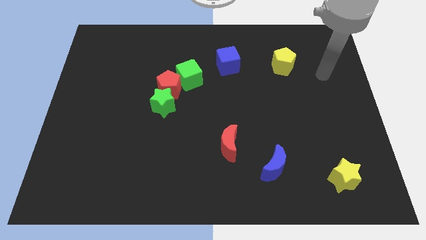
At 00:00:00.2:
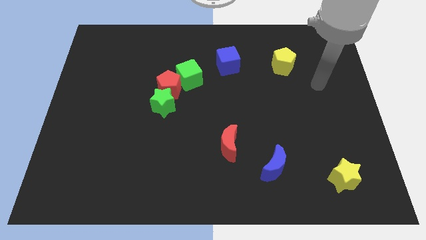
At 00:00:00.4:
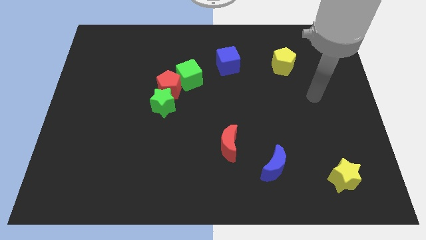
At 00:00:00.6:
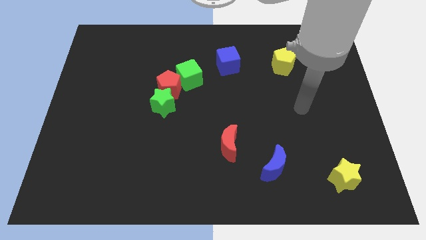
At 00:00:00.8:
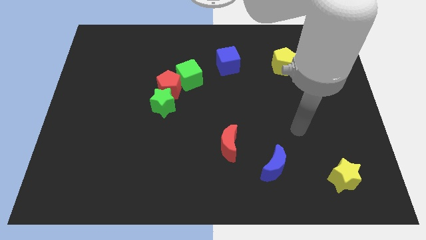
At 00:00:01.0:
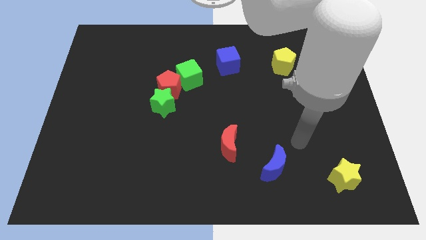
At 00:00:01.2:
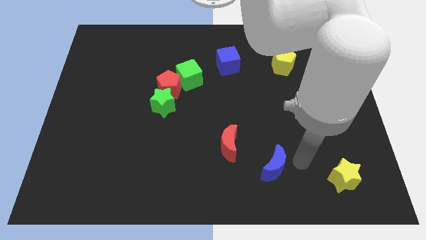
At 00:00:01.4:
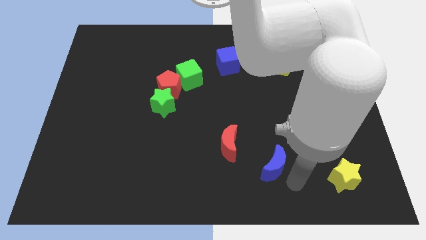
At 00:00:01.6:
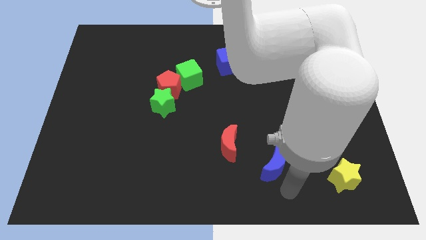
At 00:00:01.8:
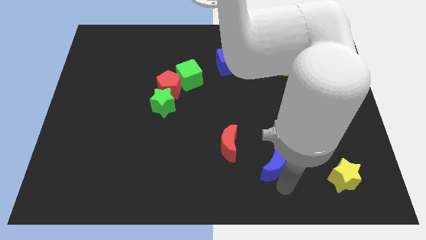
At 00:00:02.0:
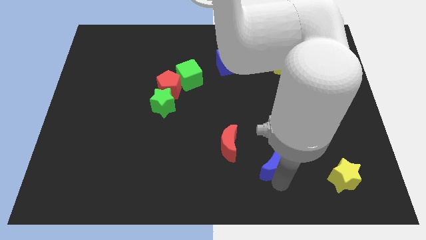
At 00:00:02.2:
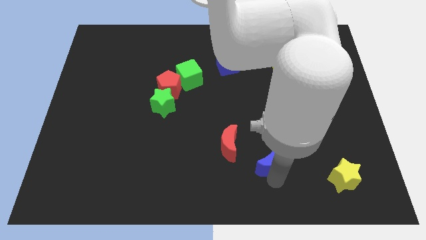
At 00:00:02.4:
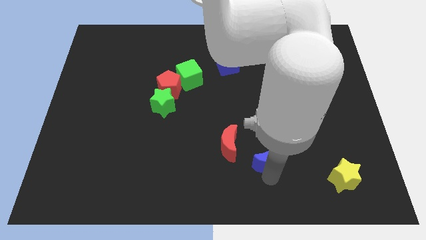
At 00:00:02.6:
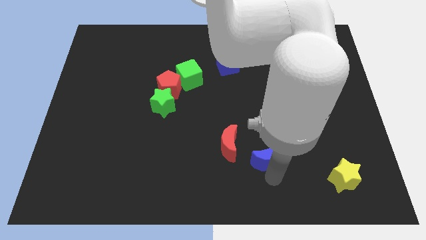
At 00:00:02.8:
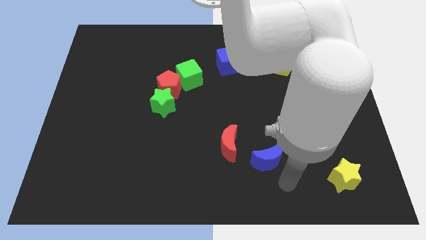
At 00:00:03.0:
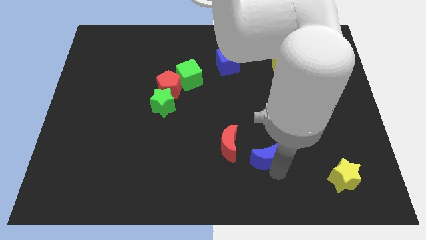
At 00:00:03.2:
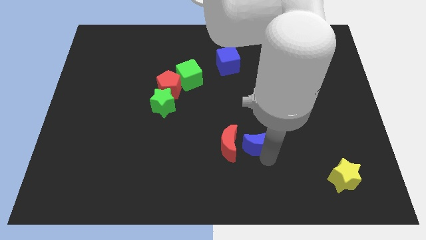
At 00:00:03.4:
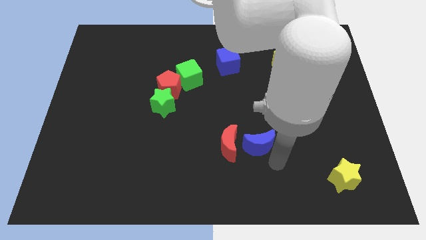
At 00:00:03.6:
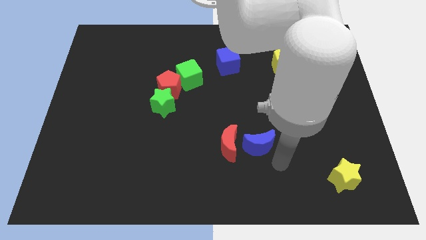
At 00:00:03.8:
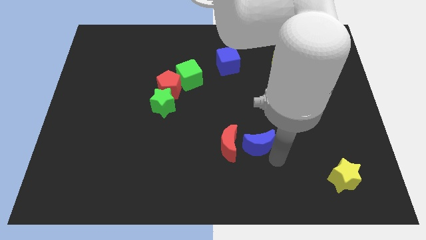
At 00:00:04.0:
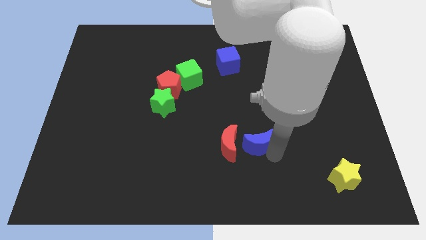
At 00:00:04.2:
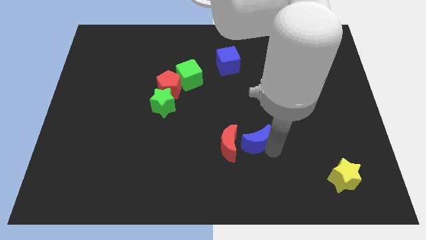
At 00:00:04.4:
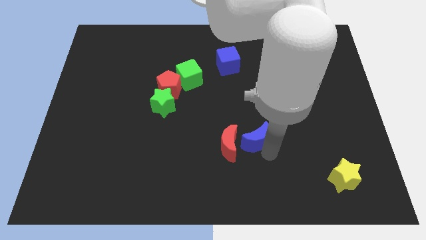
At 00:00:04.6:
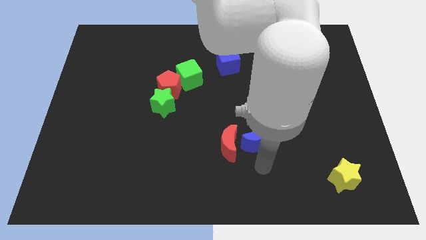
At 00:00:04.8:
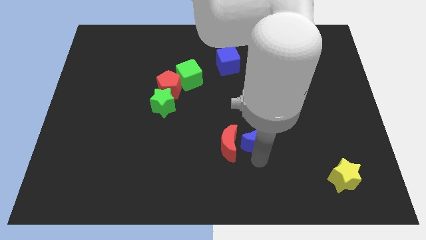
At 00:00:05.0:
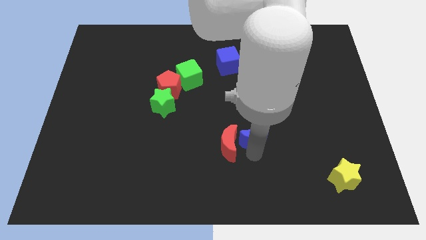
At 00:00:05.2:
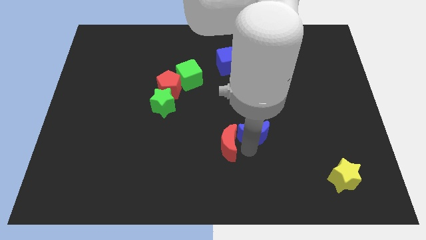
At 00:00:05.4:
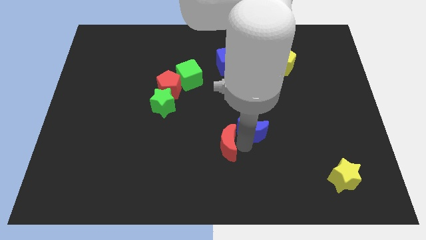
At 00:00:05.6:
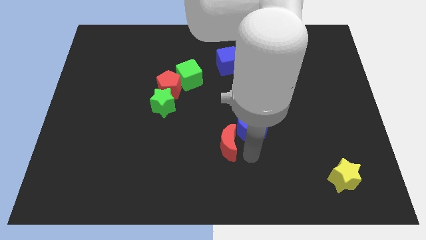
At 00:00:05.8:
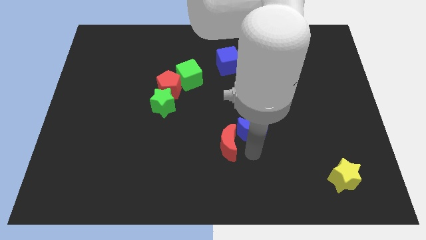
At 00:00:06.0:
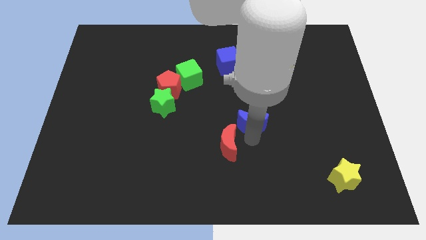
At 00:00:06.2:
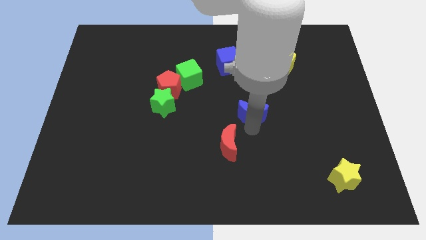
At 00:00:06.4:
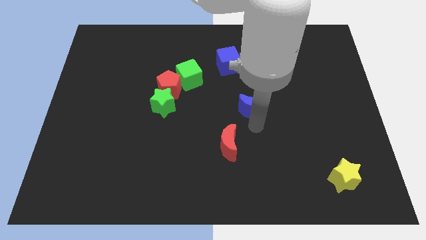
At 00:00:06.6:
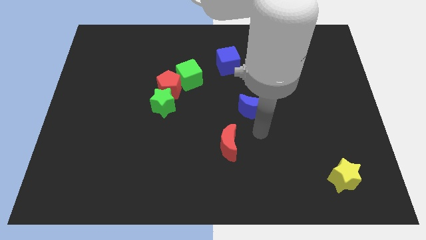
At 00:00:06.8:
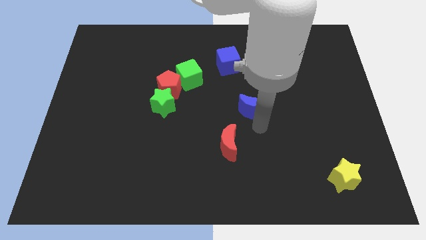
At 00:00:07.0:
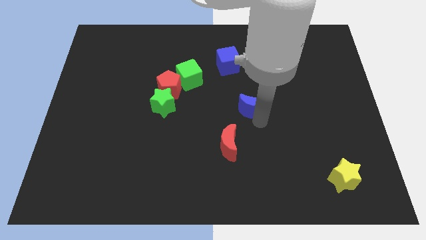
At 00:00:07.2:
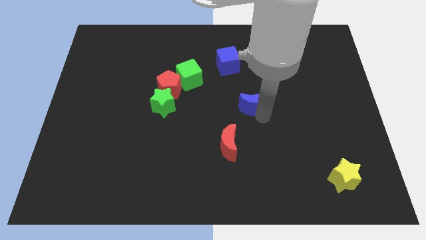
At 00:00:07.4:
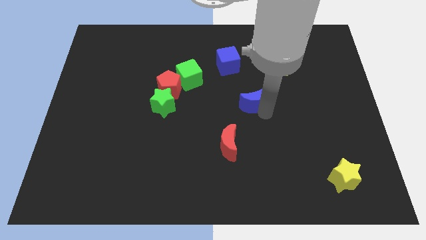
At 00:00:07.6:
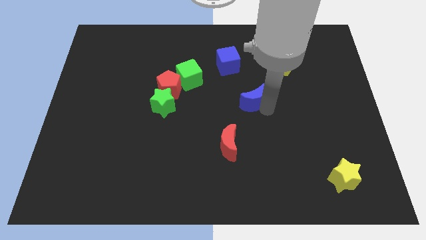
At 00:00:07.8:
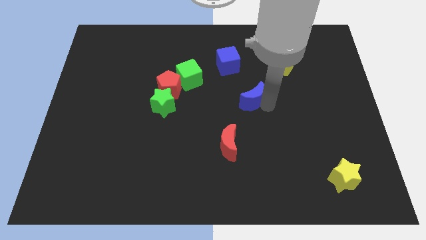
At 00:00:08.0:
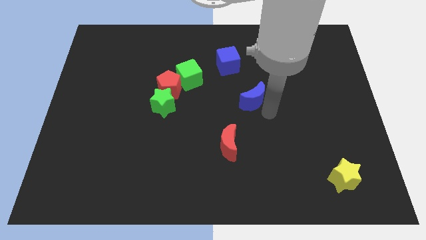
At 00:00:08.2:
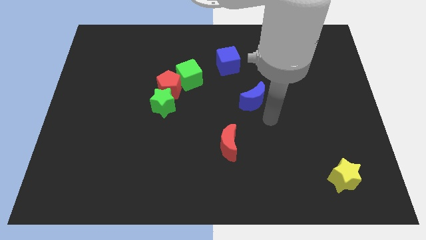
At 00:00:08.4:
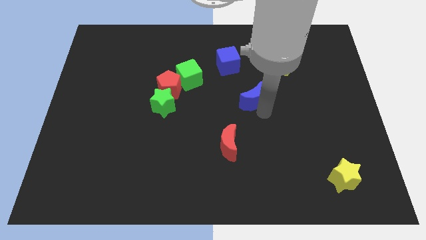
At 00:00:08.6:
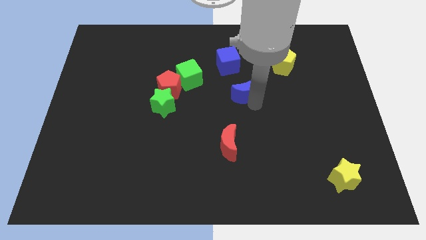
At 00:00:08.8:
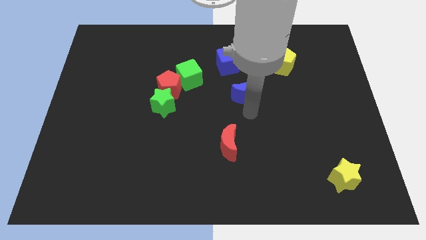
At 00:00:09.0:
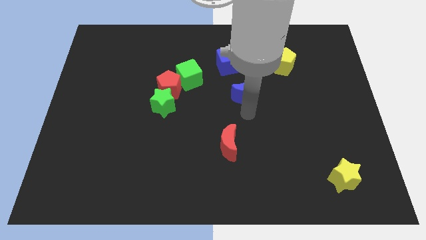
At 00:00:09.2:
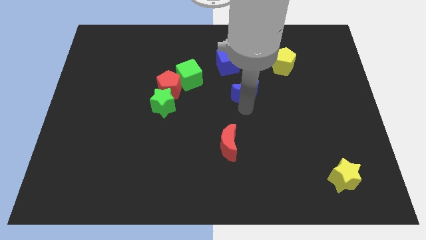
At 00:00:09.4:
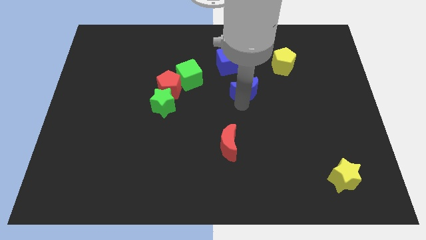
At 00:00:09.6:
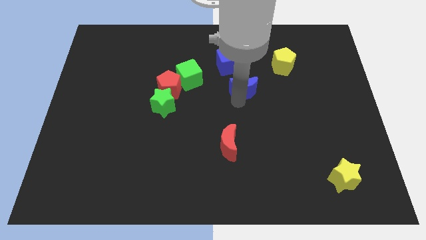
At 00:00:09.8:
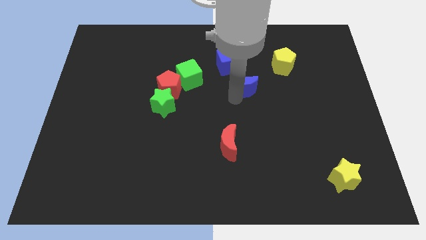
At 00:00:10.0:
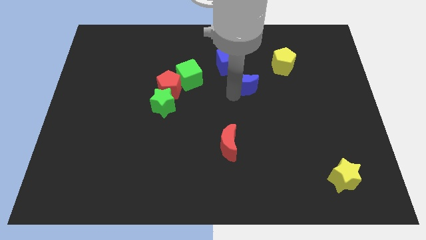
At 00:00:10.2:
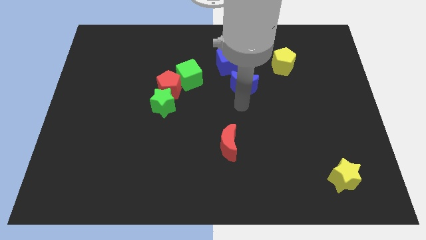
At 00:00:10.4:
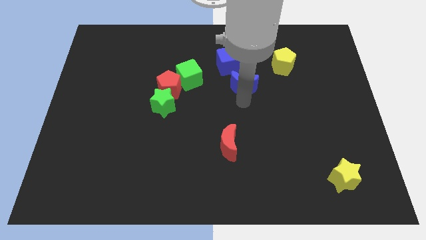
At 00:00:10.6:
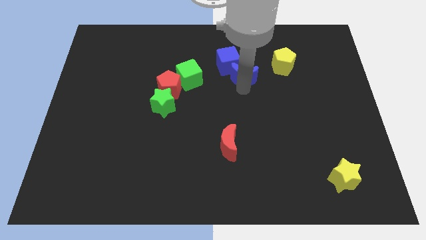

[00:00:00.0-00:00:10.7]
move the blue moon to the left of the yellow pentagon

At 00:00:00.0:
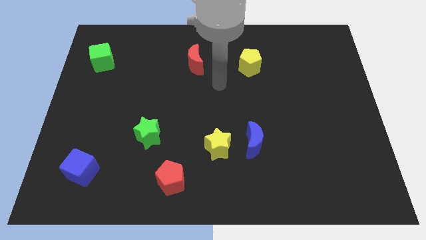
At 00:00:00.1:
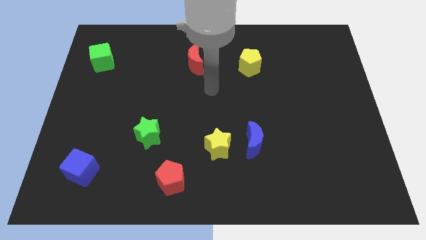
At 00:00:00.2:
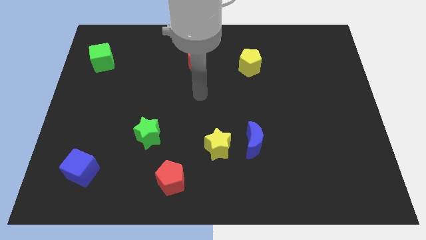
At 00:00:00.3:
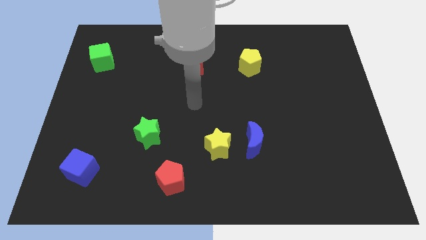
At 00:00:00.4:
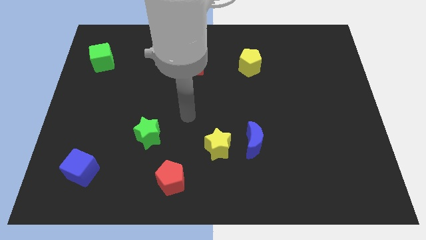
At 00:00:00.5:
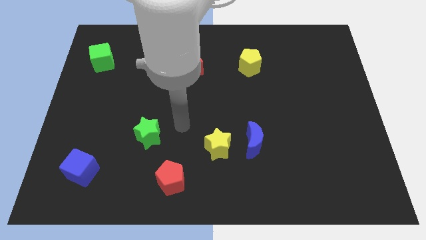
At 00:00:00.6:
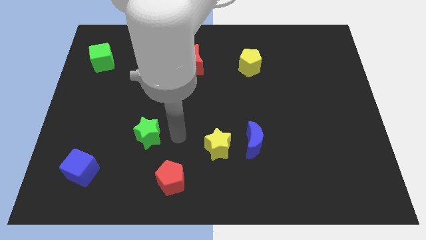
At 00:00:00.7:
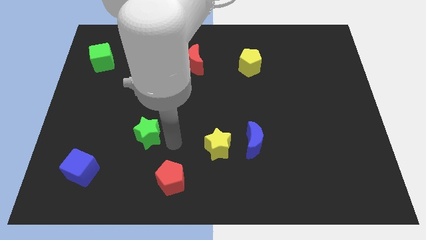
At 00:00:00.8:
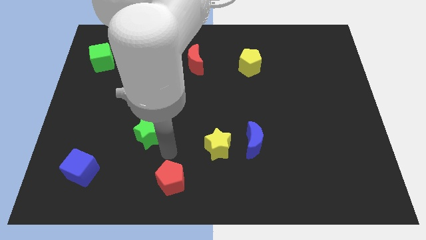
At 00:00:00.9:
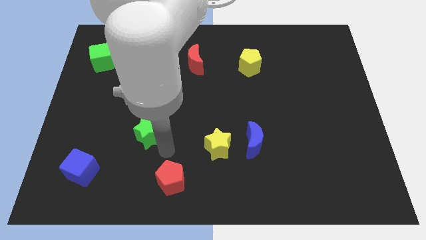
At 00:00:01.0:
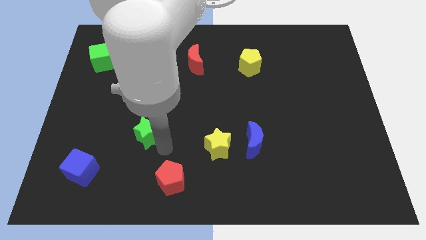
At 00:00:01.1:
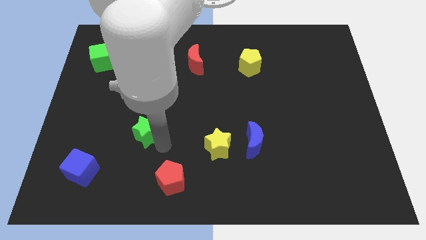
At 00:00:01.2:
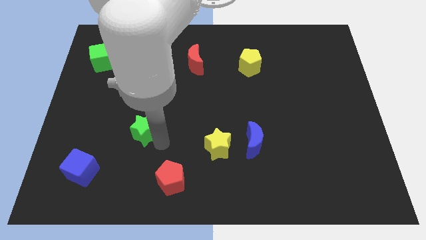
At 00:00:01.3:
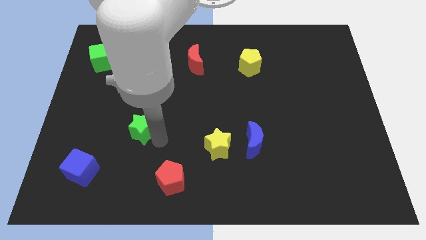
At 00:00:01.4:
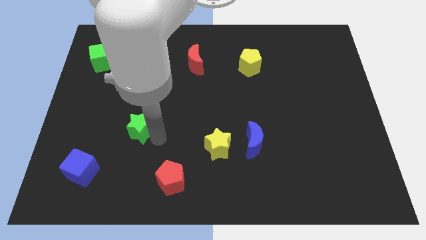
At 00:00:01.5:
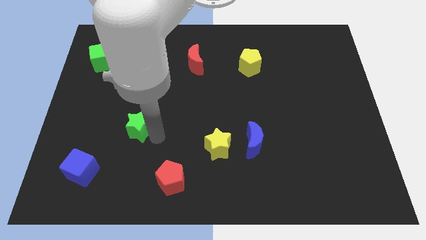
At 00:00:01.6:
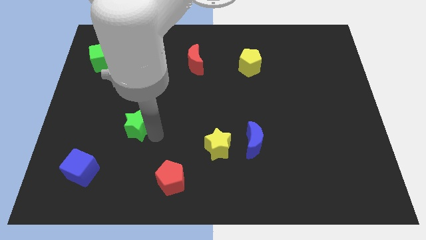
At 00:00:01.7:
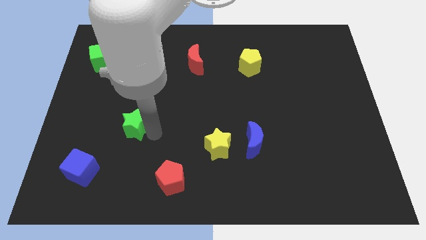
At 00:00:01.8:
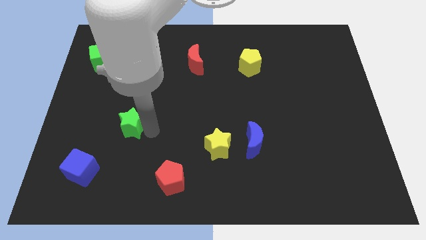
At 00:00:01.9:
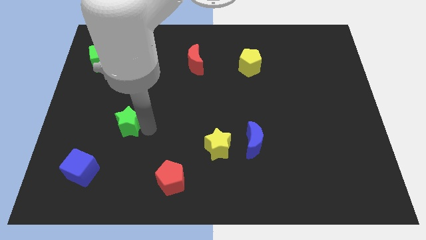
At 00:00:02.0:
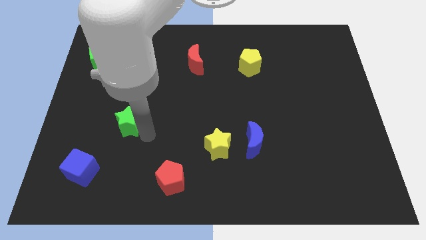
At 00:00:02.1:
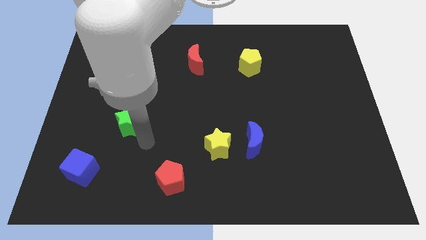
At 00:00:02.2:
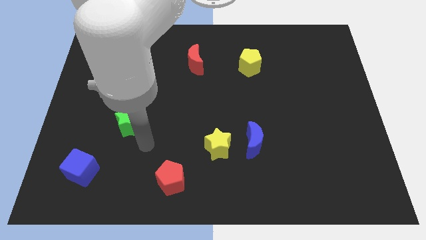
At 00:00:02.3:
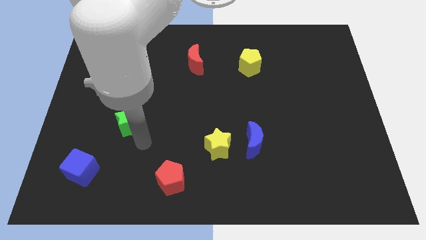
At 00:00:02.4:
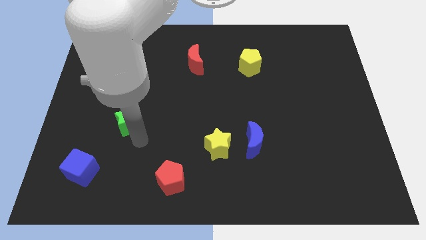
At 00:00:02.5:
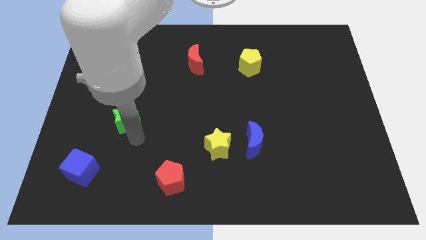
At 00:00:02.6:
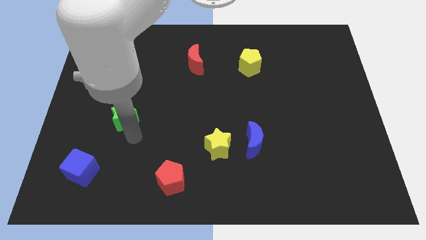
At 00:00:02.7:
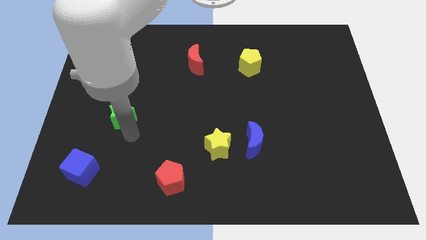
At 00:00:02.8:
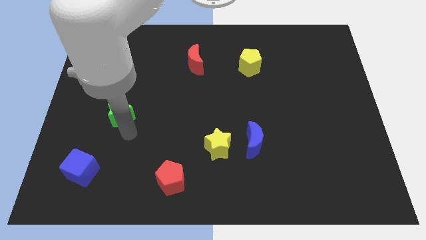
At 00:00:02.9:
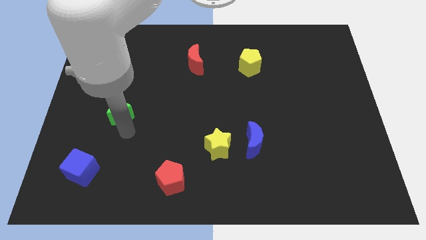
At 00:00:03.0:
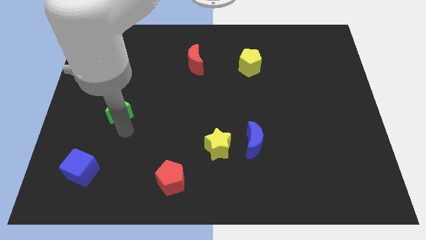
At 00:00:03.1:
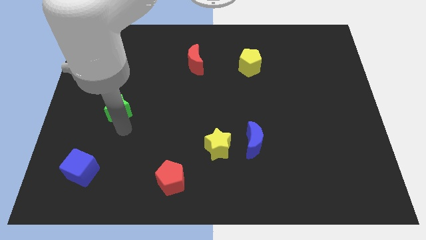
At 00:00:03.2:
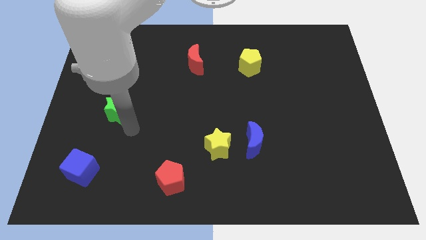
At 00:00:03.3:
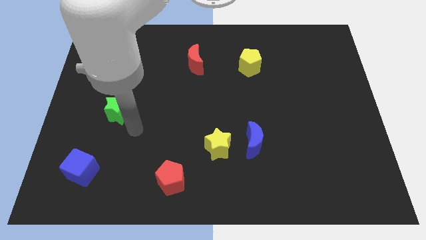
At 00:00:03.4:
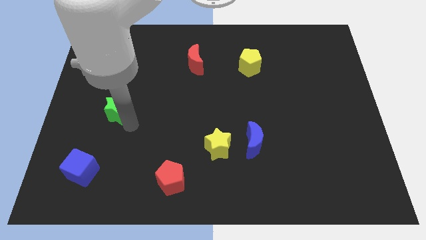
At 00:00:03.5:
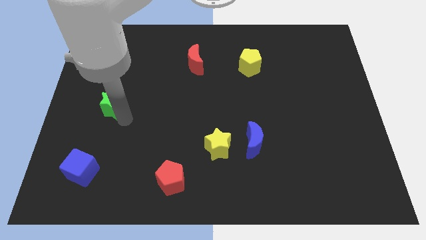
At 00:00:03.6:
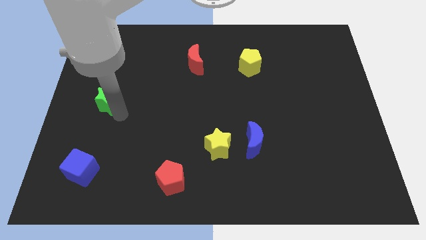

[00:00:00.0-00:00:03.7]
slide the green star to the bottom side of the green cube
